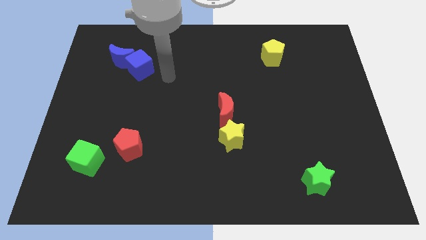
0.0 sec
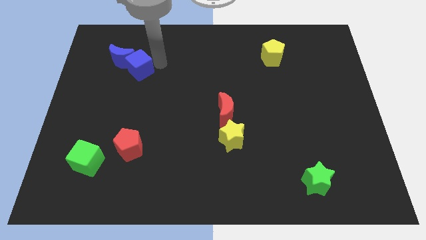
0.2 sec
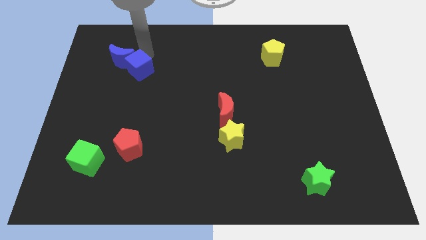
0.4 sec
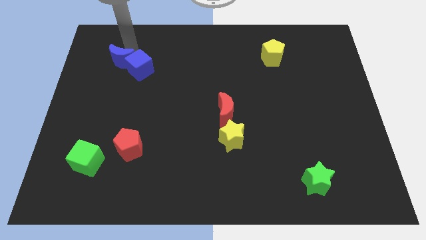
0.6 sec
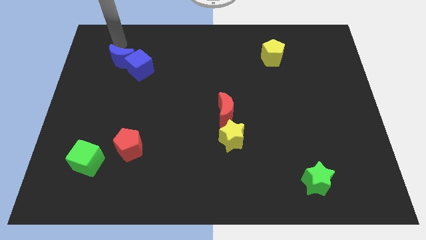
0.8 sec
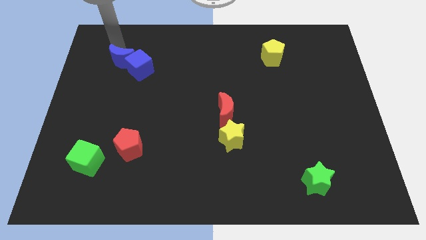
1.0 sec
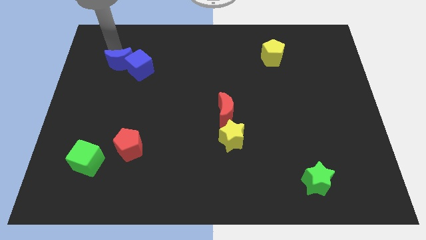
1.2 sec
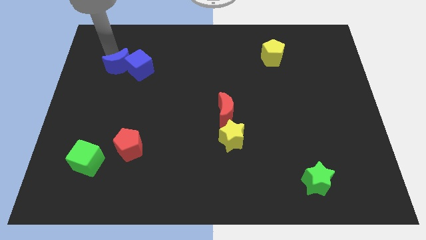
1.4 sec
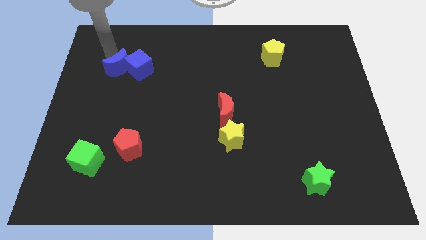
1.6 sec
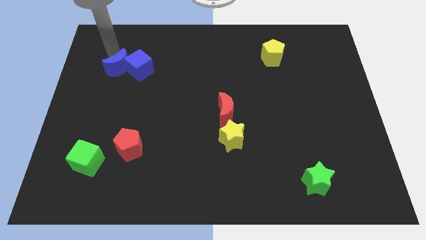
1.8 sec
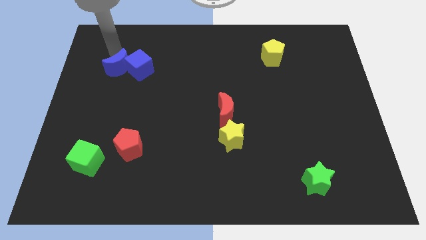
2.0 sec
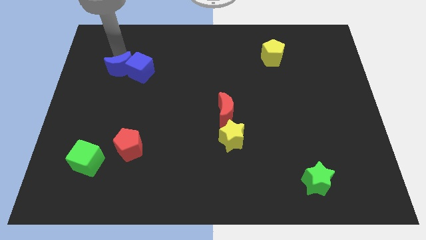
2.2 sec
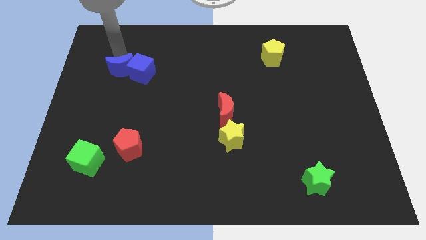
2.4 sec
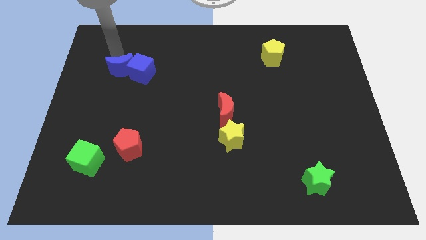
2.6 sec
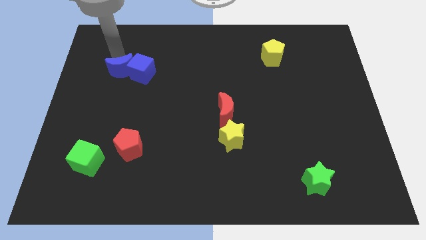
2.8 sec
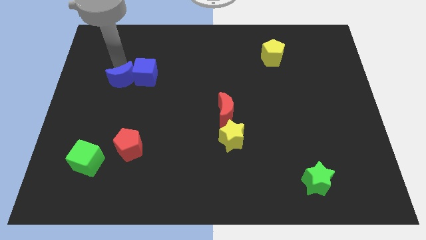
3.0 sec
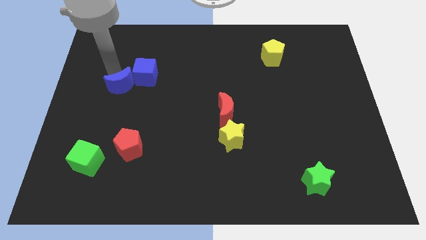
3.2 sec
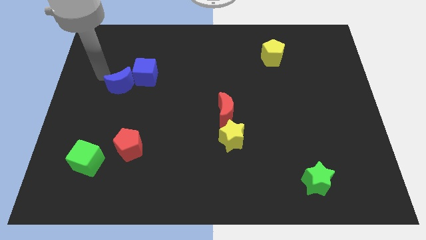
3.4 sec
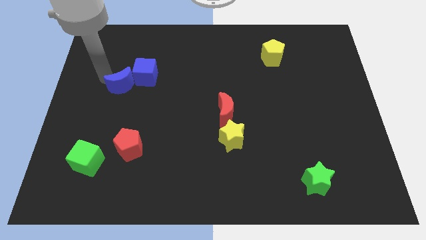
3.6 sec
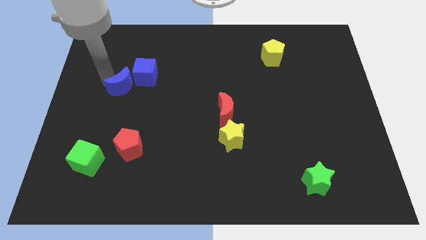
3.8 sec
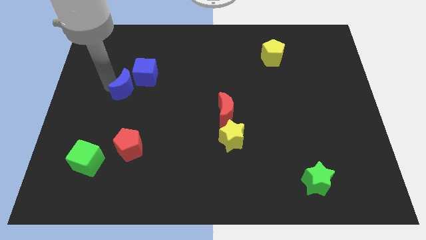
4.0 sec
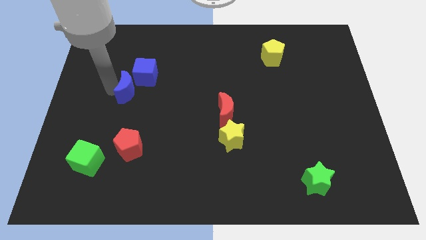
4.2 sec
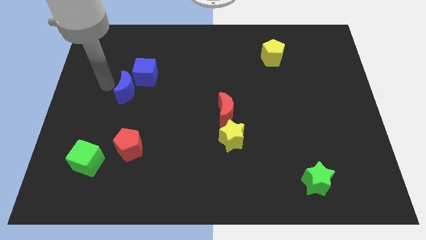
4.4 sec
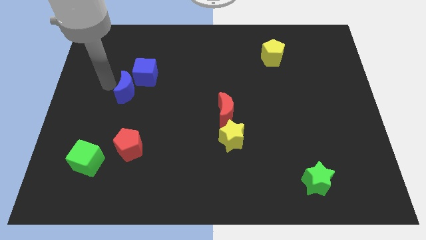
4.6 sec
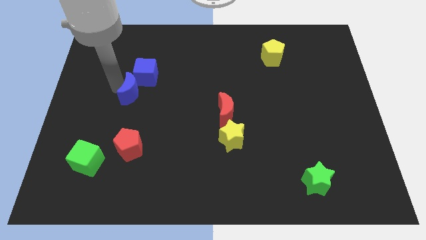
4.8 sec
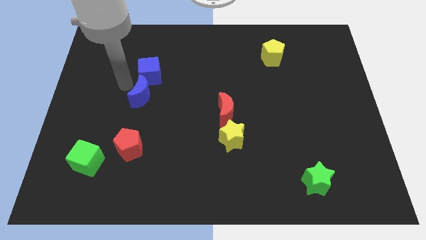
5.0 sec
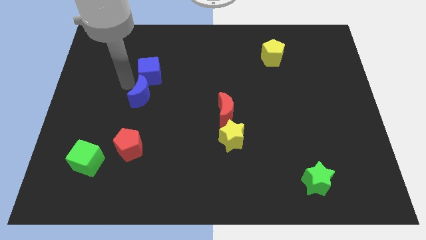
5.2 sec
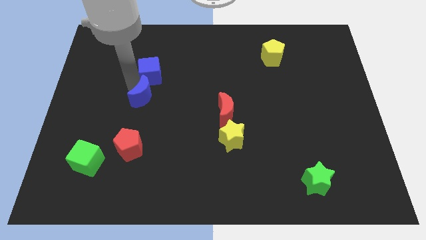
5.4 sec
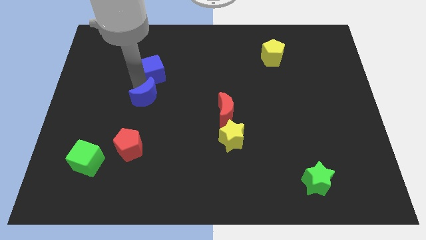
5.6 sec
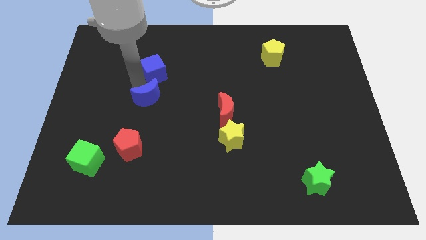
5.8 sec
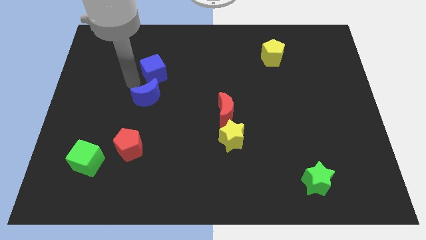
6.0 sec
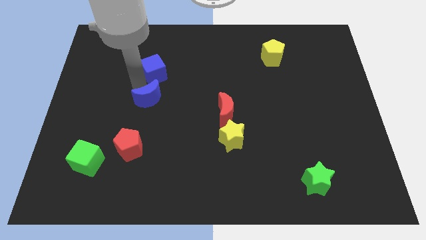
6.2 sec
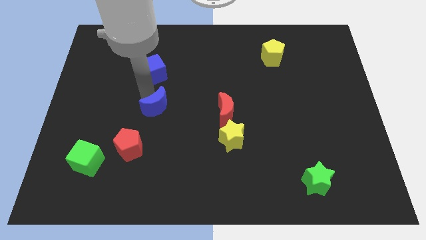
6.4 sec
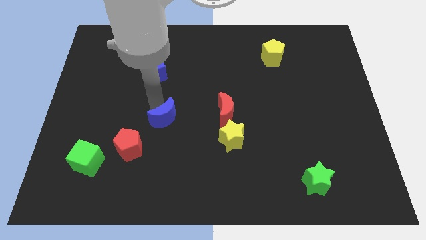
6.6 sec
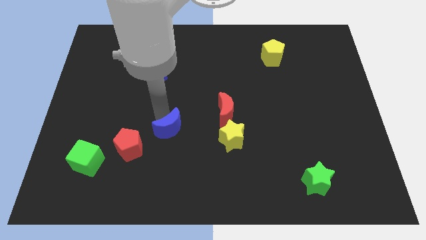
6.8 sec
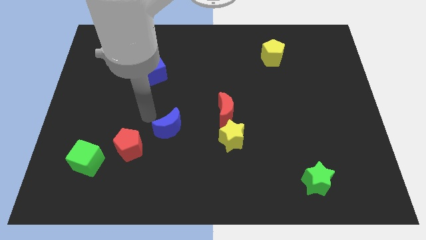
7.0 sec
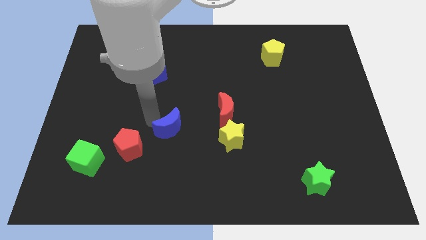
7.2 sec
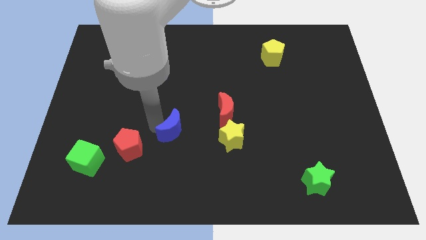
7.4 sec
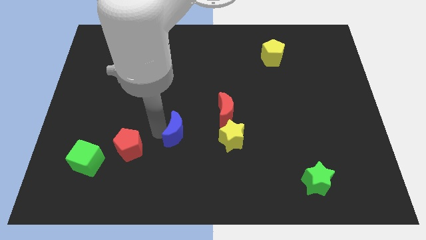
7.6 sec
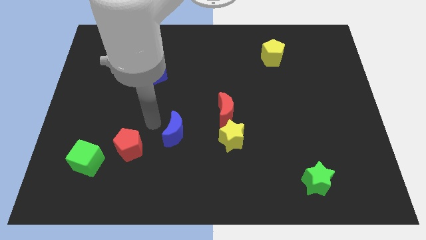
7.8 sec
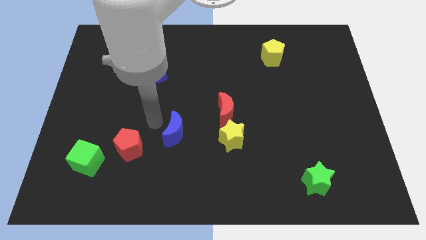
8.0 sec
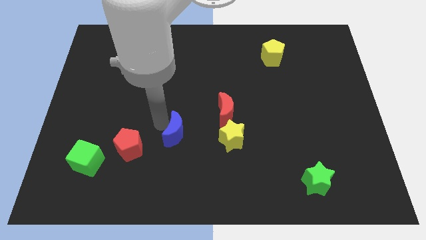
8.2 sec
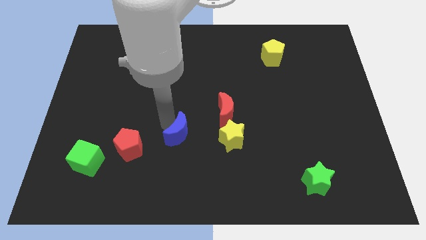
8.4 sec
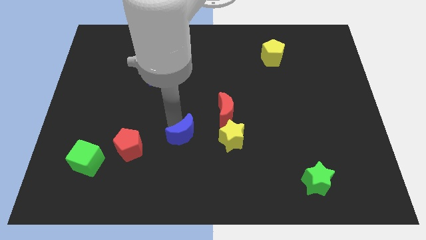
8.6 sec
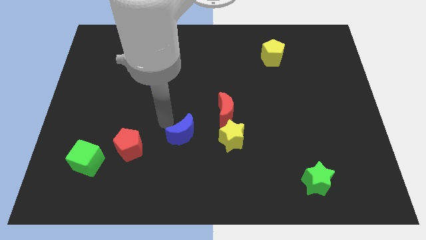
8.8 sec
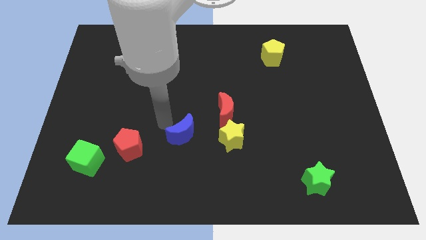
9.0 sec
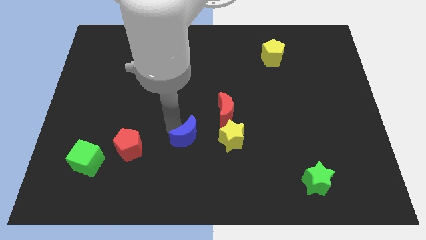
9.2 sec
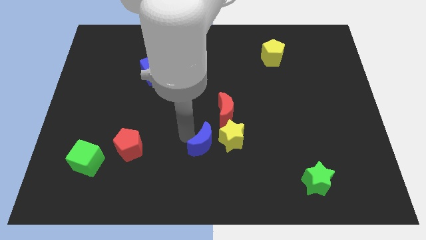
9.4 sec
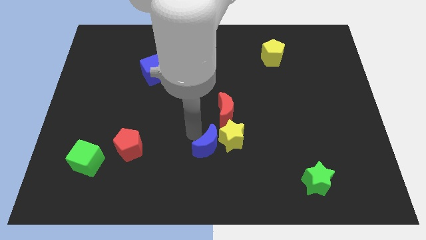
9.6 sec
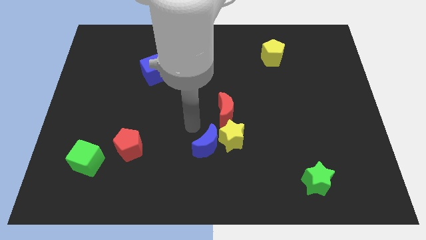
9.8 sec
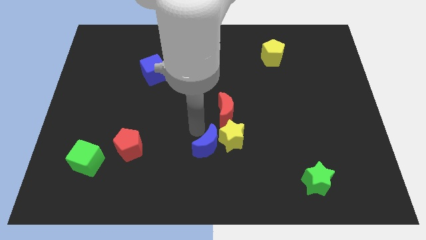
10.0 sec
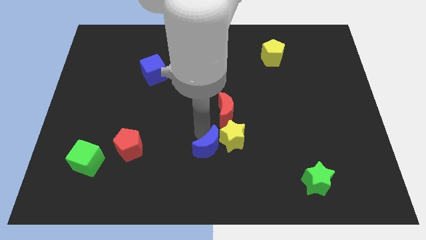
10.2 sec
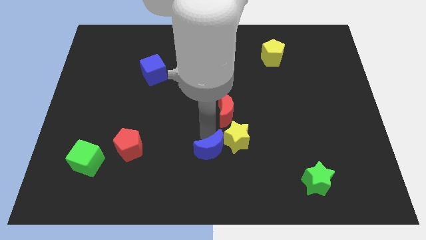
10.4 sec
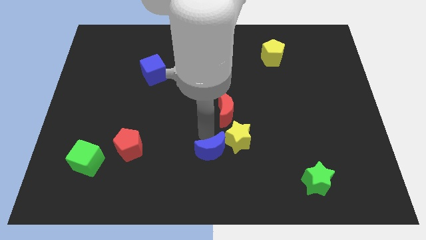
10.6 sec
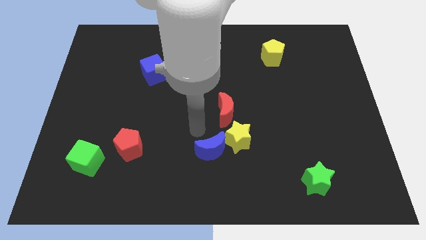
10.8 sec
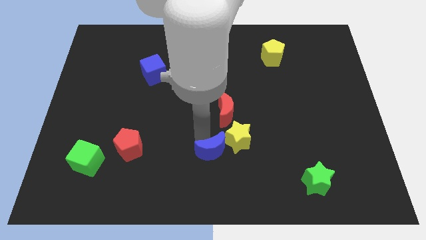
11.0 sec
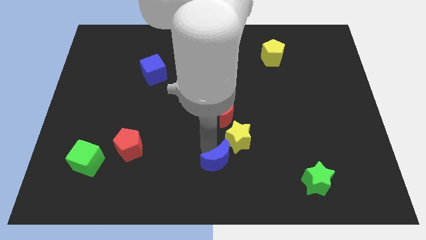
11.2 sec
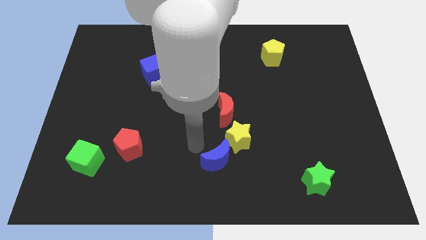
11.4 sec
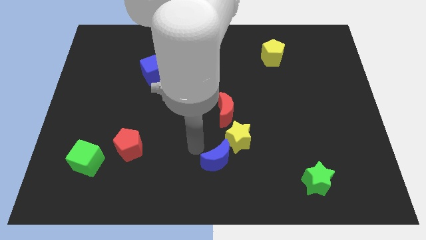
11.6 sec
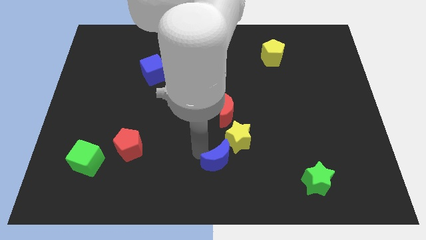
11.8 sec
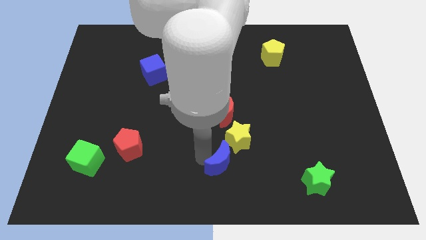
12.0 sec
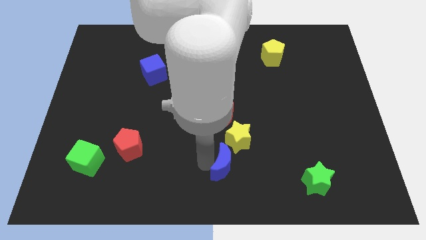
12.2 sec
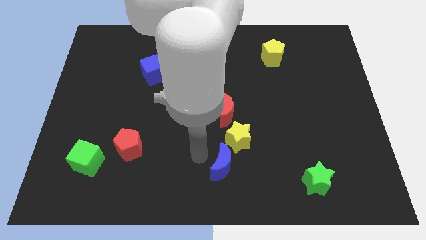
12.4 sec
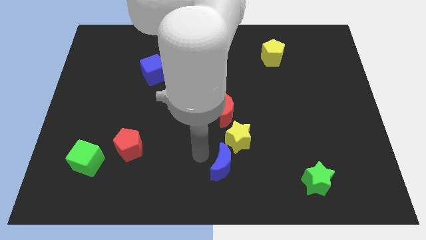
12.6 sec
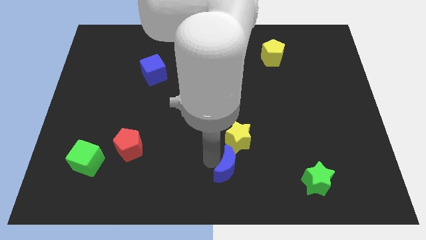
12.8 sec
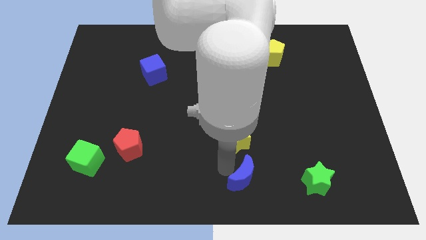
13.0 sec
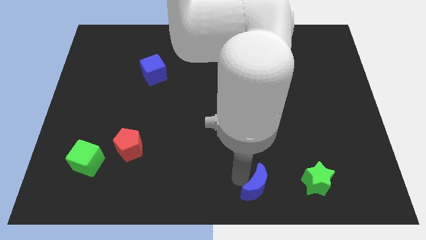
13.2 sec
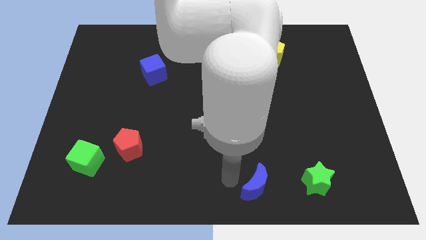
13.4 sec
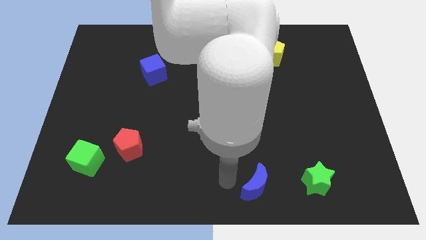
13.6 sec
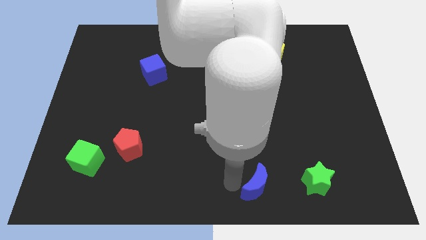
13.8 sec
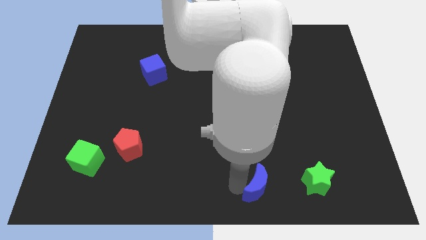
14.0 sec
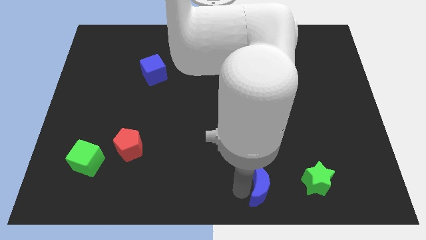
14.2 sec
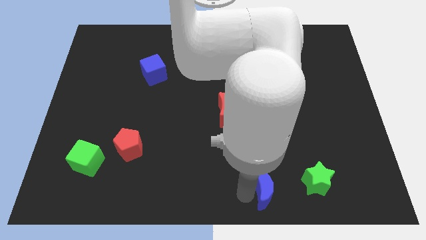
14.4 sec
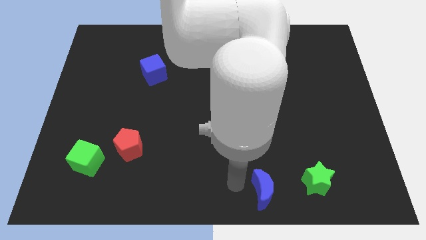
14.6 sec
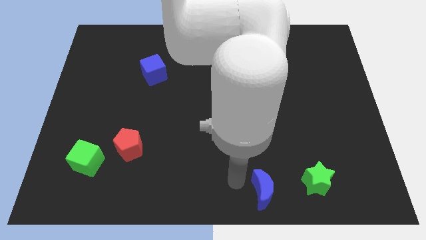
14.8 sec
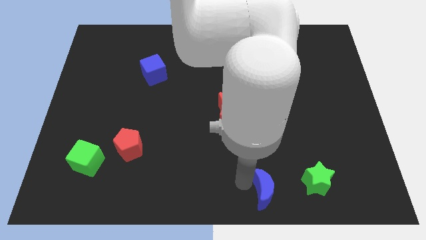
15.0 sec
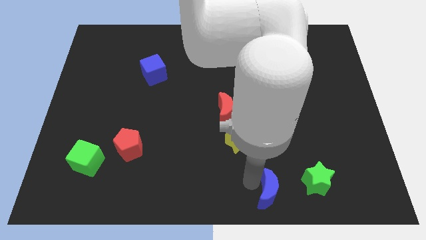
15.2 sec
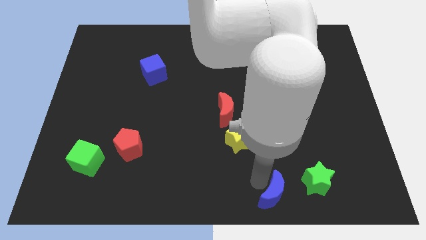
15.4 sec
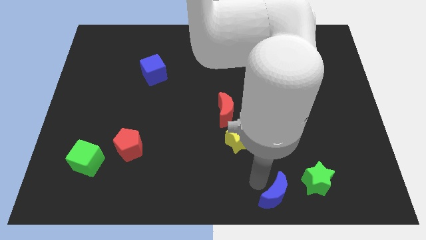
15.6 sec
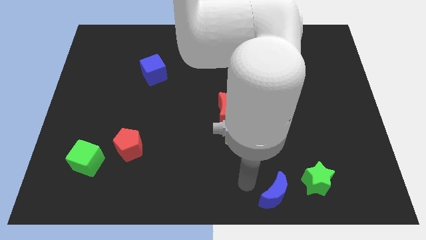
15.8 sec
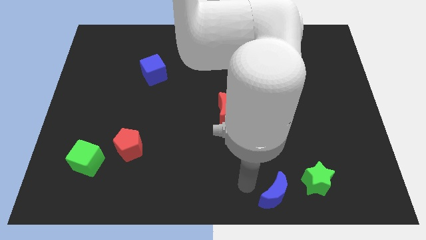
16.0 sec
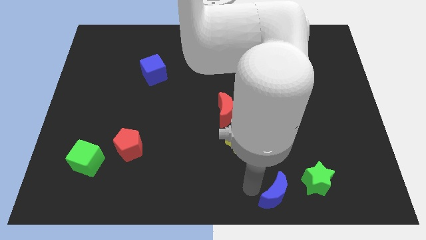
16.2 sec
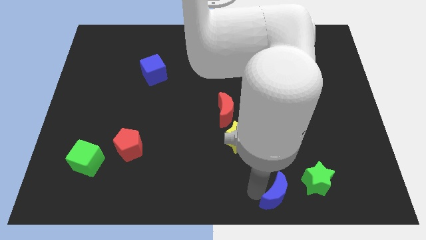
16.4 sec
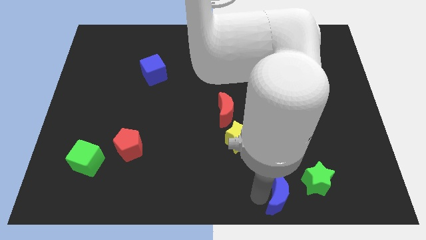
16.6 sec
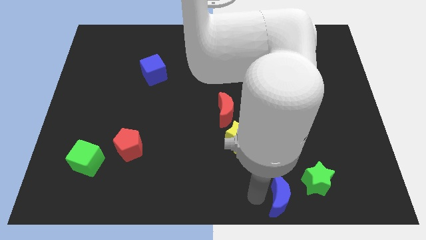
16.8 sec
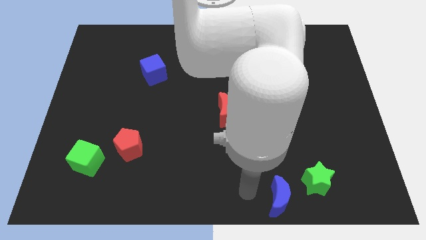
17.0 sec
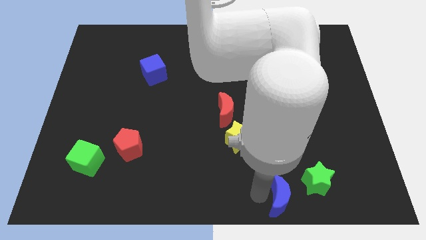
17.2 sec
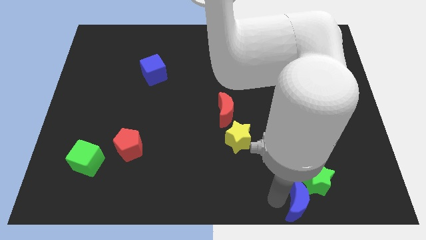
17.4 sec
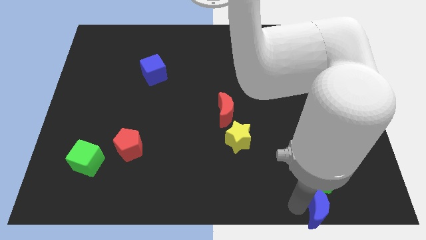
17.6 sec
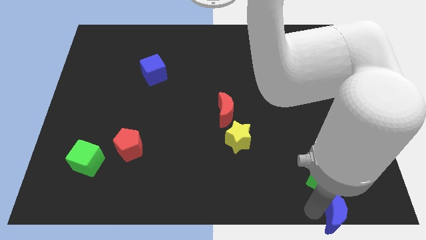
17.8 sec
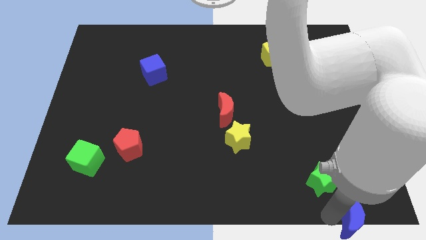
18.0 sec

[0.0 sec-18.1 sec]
put the blue moon to the lower right corner
